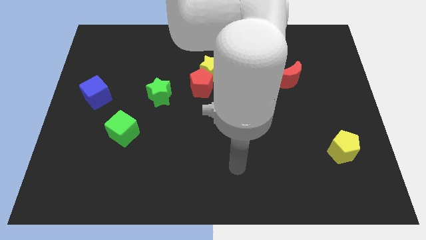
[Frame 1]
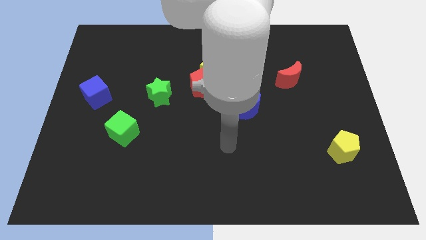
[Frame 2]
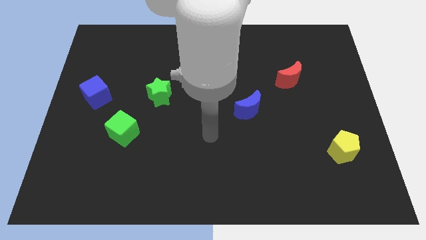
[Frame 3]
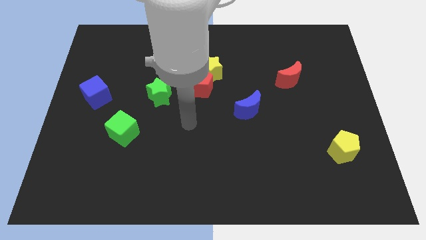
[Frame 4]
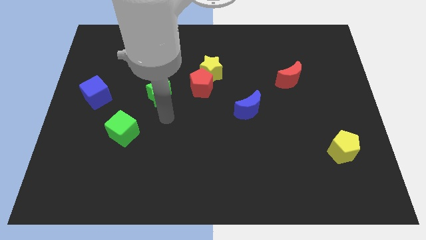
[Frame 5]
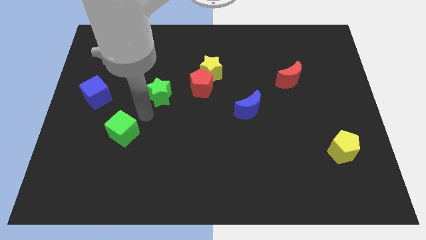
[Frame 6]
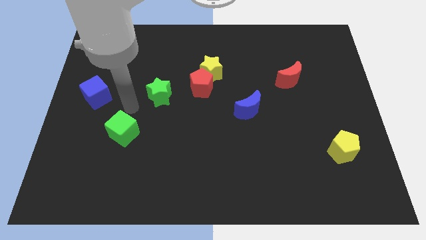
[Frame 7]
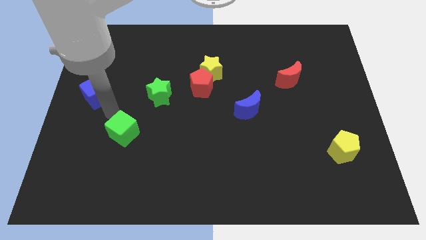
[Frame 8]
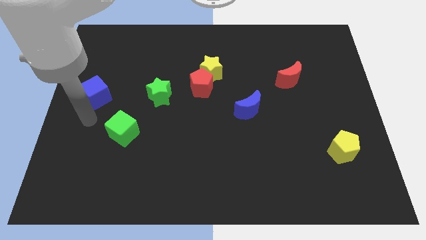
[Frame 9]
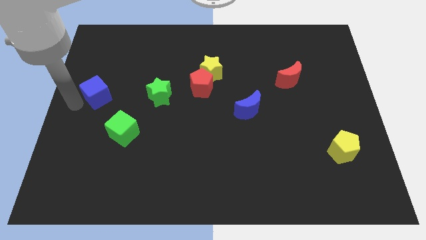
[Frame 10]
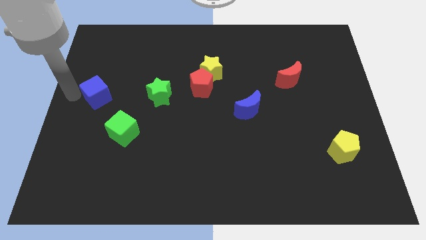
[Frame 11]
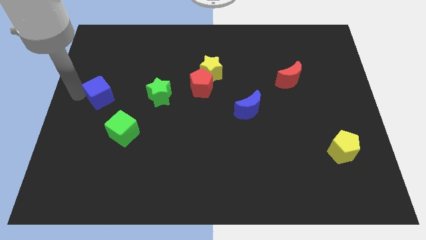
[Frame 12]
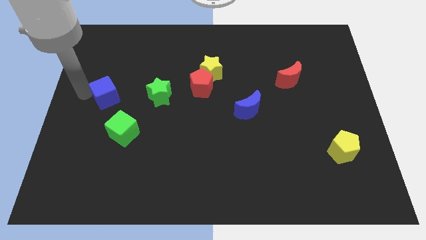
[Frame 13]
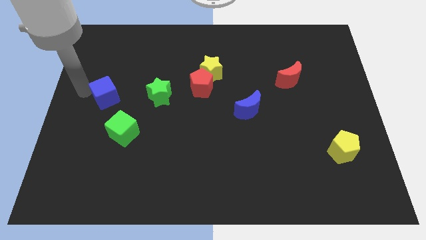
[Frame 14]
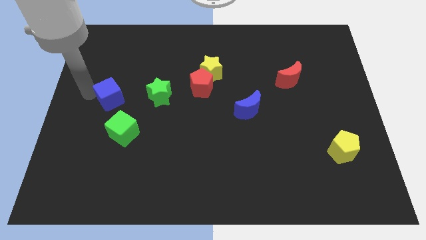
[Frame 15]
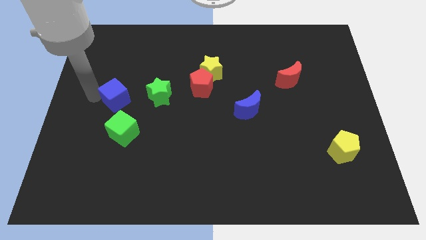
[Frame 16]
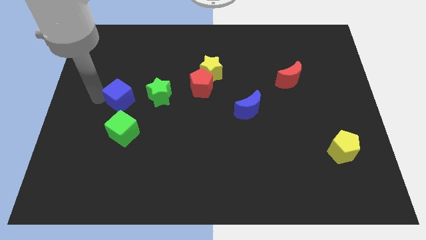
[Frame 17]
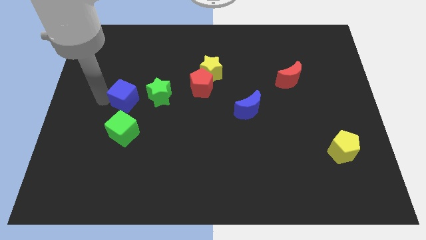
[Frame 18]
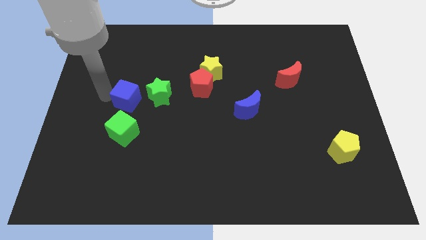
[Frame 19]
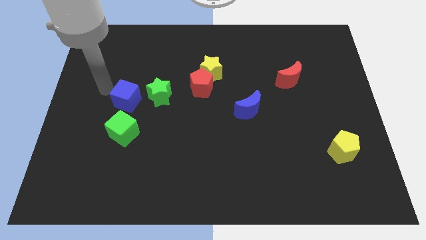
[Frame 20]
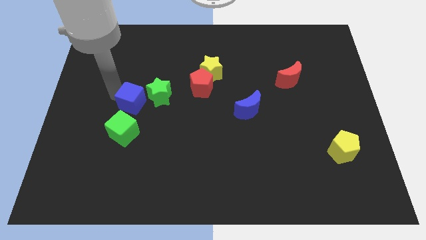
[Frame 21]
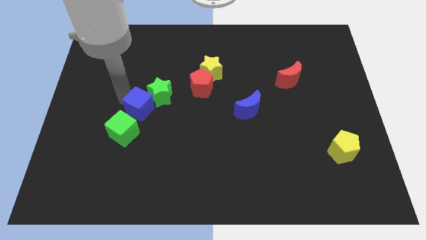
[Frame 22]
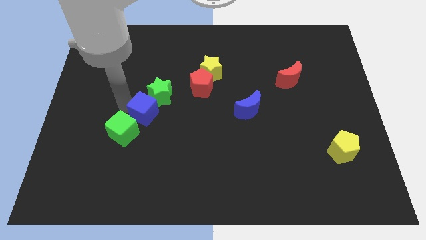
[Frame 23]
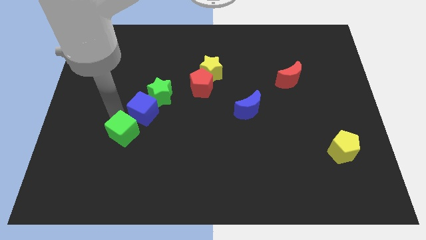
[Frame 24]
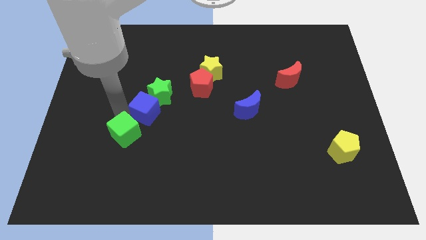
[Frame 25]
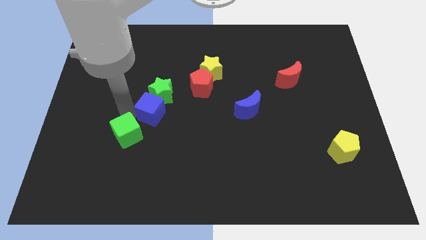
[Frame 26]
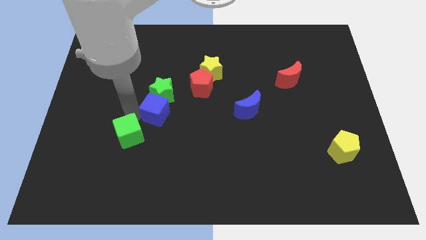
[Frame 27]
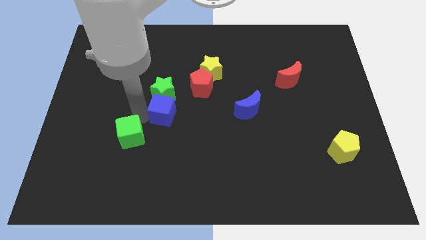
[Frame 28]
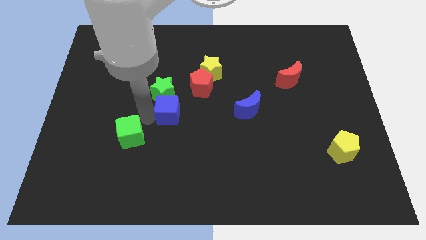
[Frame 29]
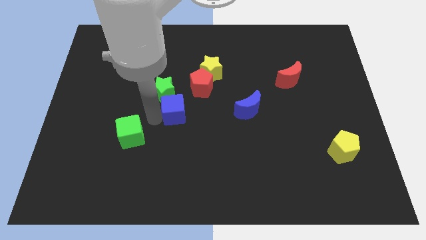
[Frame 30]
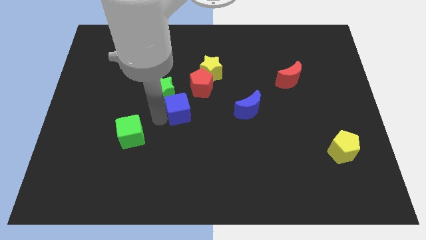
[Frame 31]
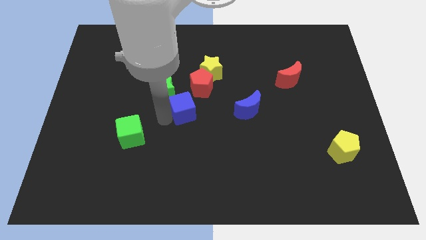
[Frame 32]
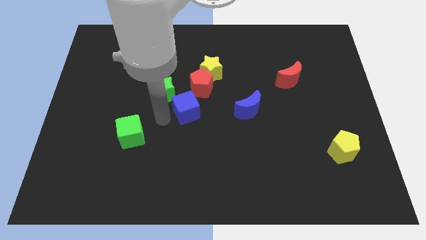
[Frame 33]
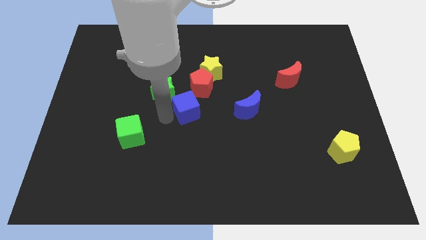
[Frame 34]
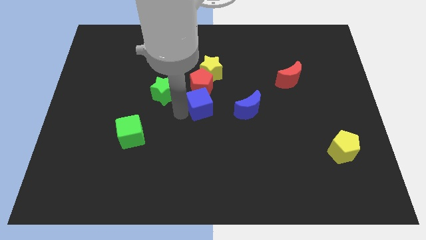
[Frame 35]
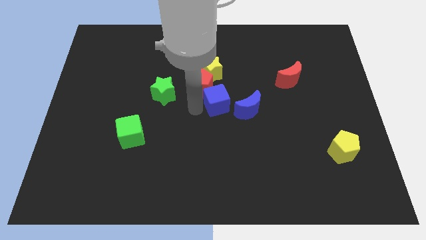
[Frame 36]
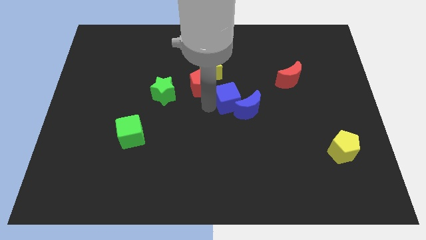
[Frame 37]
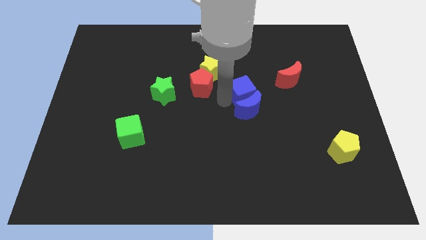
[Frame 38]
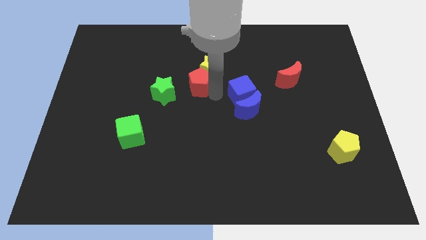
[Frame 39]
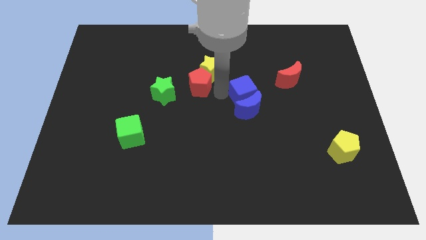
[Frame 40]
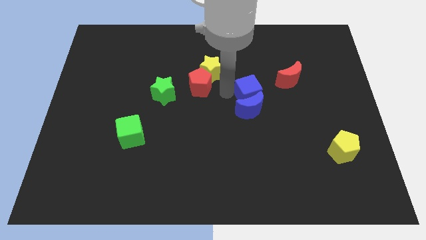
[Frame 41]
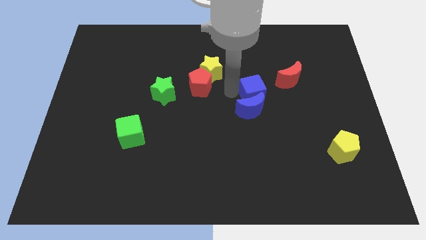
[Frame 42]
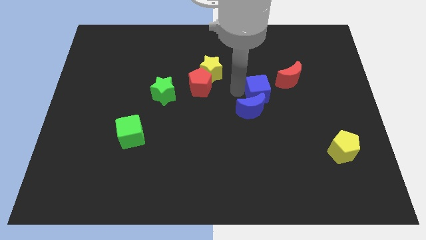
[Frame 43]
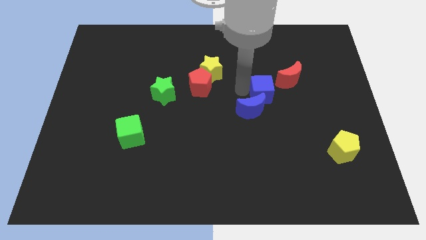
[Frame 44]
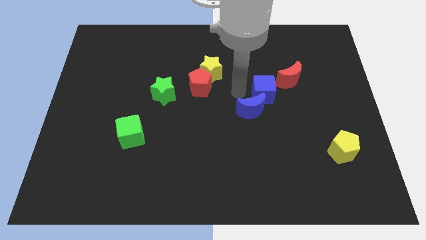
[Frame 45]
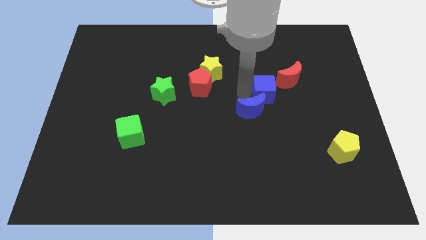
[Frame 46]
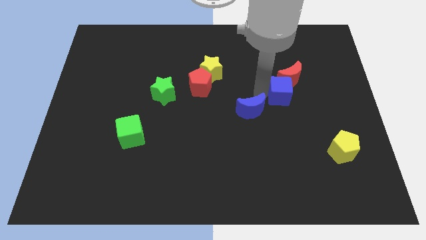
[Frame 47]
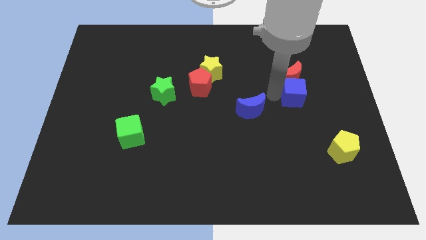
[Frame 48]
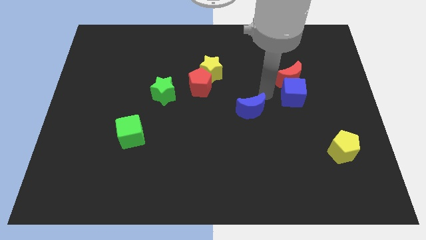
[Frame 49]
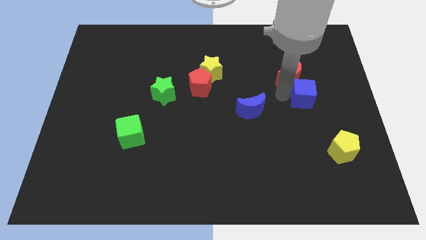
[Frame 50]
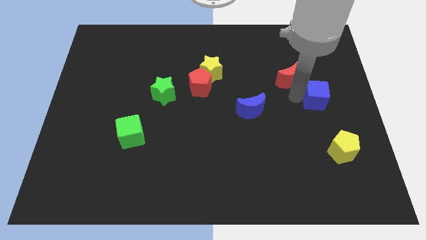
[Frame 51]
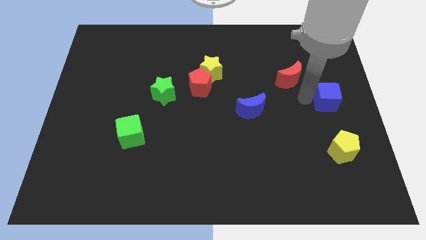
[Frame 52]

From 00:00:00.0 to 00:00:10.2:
slide the blue cube to the center right

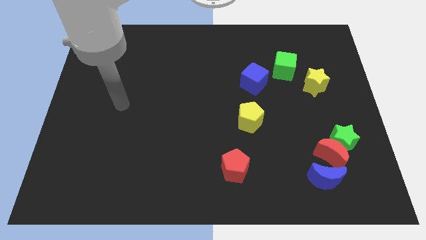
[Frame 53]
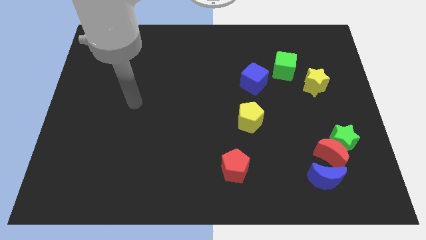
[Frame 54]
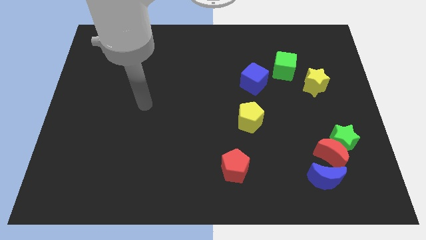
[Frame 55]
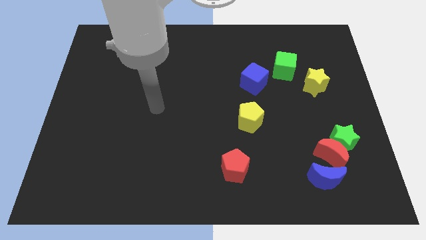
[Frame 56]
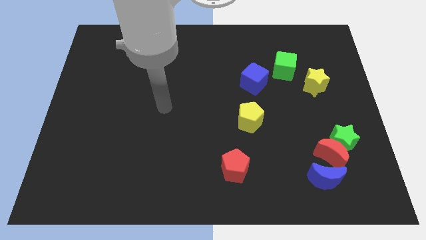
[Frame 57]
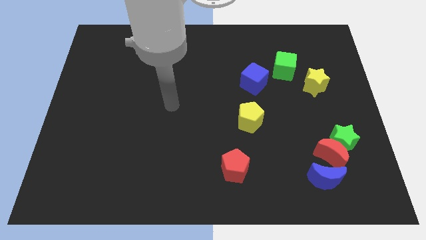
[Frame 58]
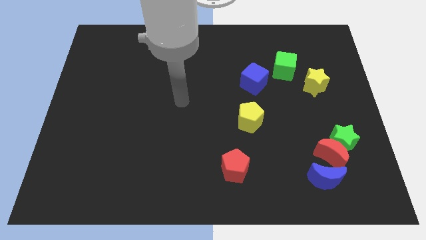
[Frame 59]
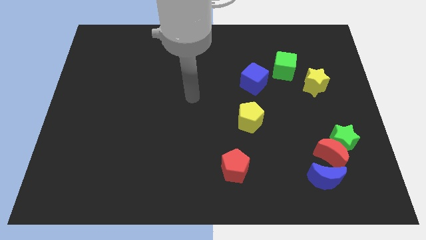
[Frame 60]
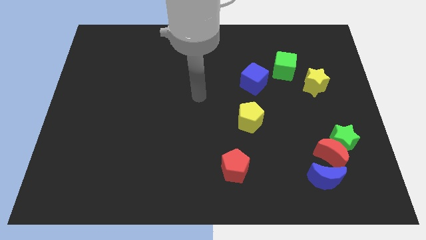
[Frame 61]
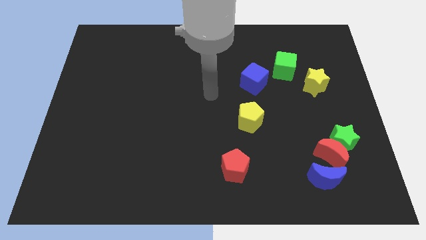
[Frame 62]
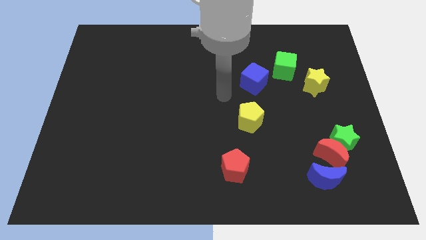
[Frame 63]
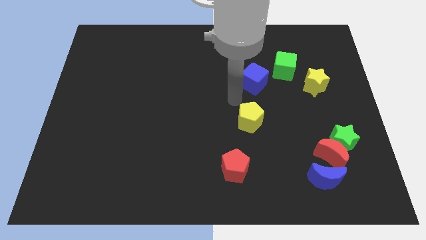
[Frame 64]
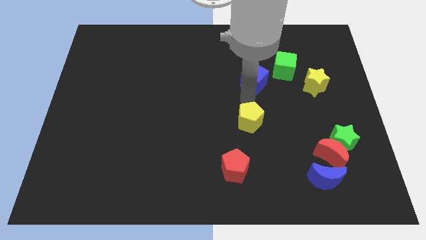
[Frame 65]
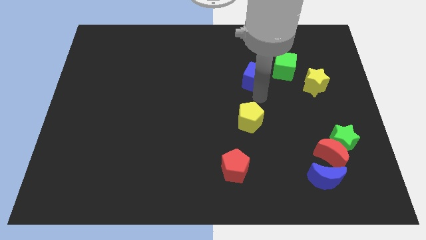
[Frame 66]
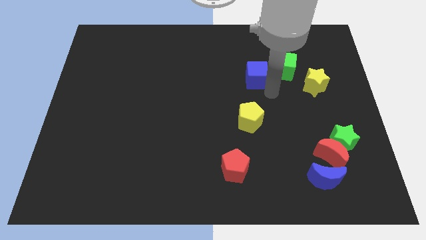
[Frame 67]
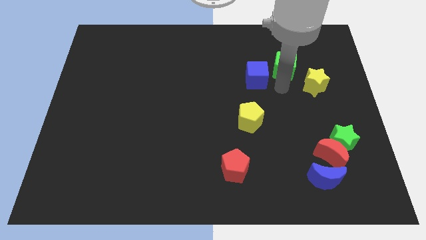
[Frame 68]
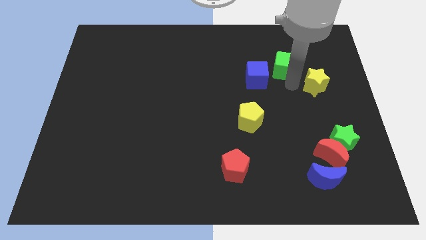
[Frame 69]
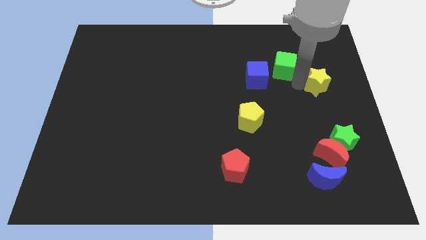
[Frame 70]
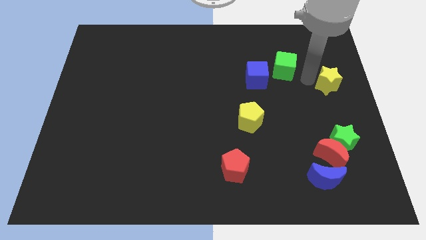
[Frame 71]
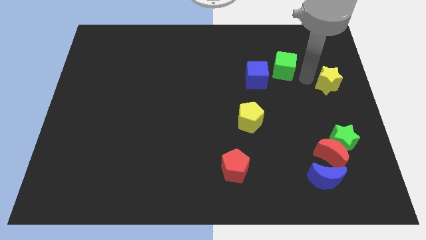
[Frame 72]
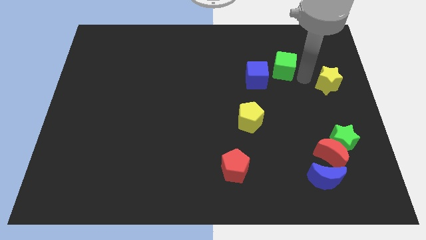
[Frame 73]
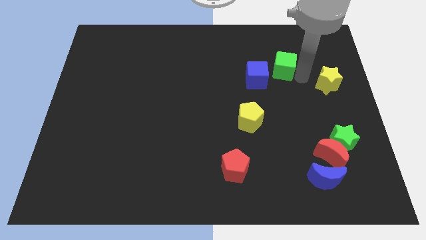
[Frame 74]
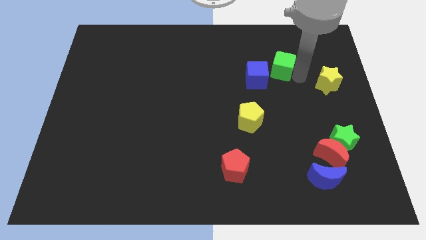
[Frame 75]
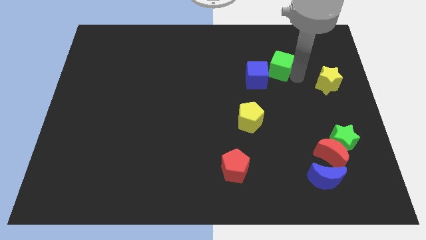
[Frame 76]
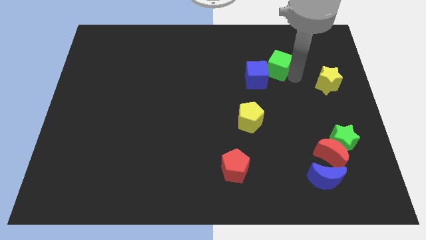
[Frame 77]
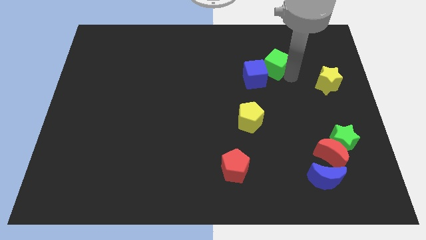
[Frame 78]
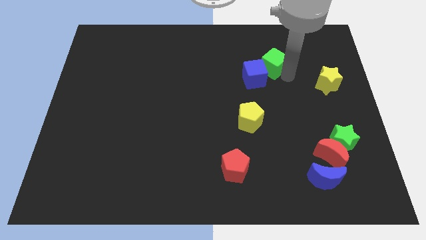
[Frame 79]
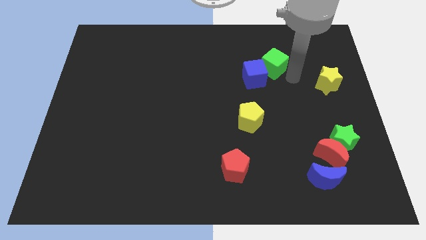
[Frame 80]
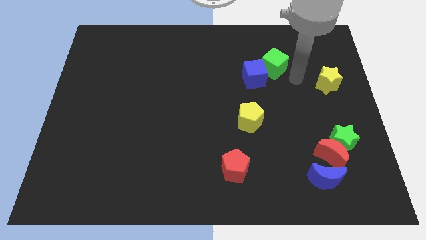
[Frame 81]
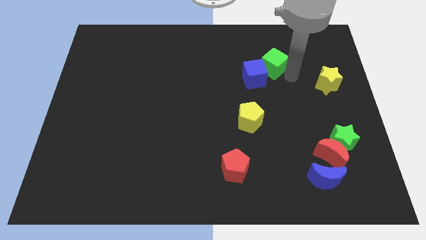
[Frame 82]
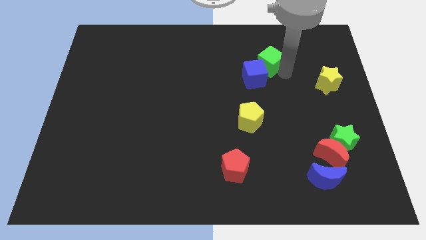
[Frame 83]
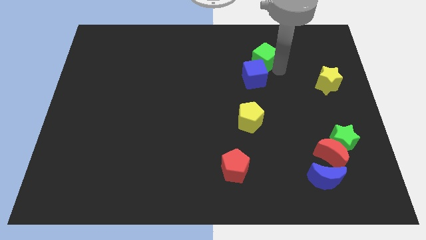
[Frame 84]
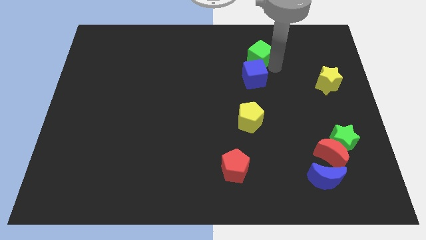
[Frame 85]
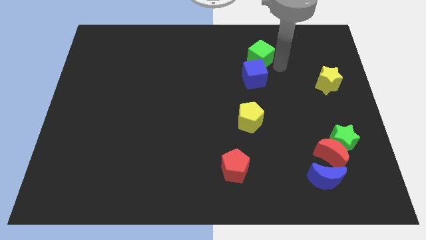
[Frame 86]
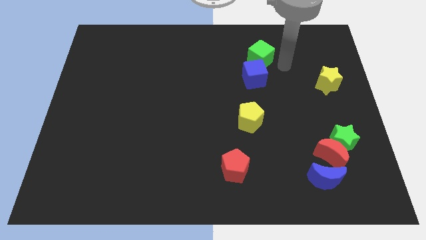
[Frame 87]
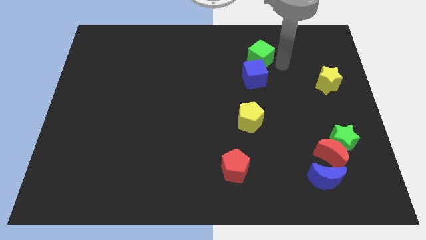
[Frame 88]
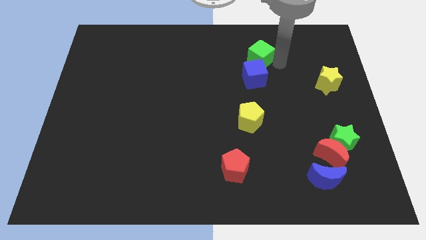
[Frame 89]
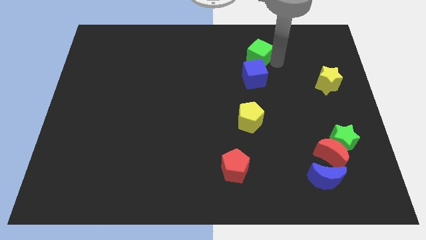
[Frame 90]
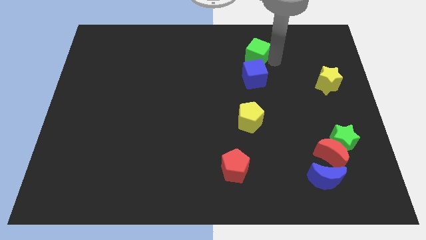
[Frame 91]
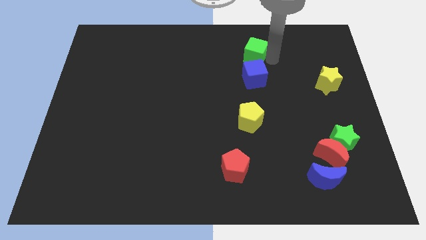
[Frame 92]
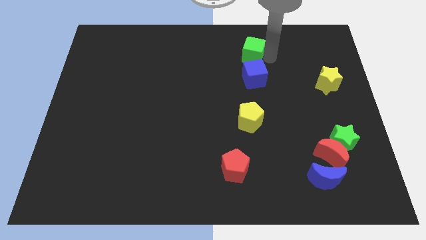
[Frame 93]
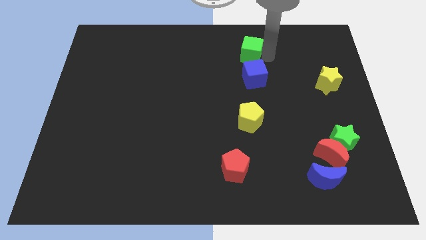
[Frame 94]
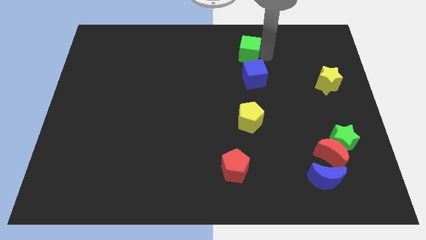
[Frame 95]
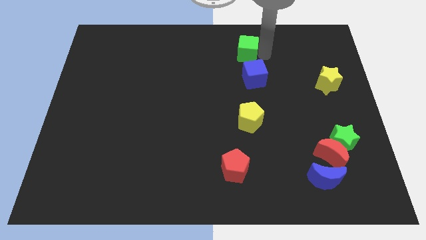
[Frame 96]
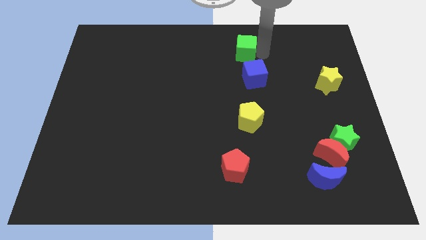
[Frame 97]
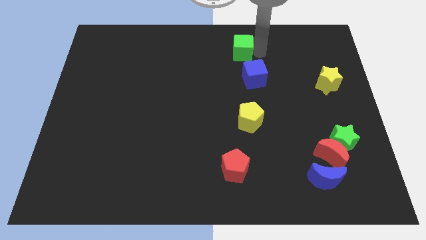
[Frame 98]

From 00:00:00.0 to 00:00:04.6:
push the green cube to the top side
